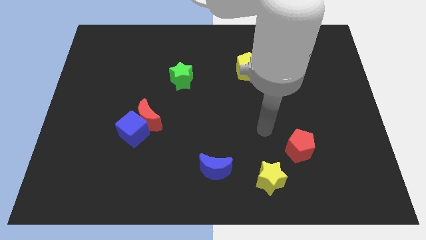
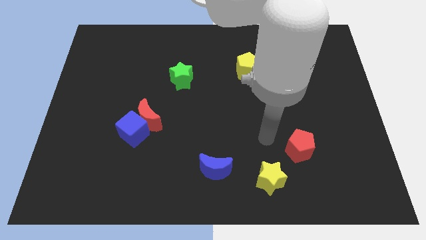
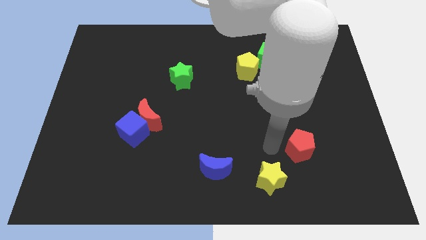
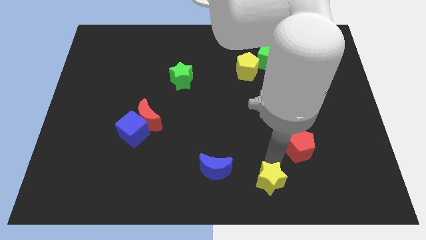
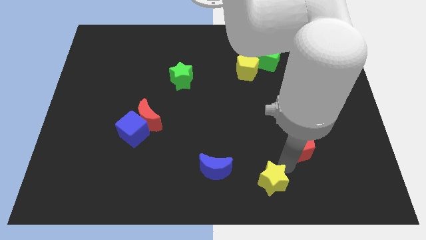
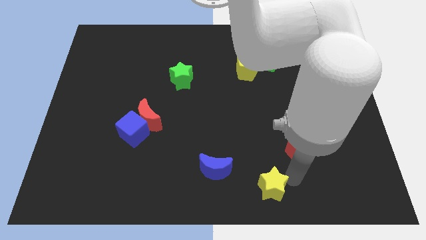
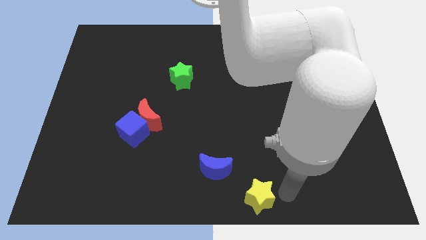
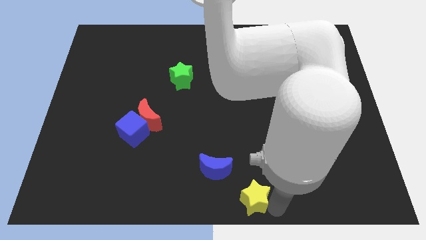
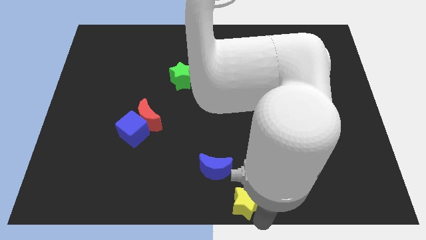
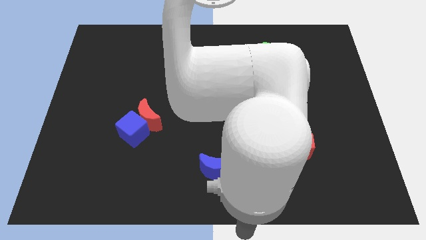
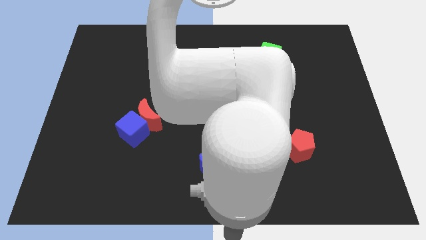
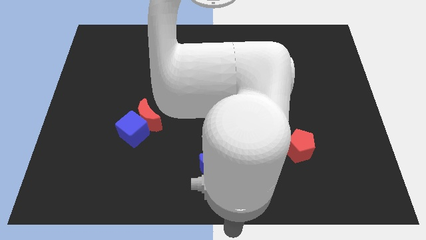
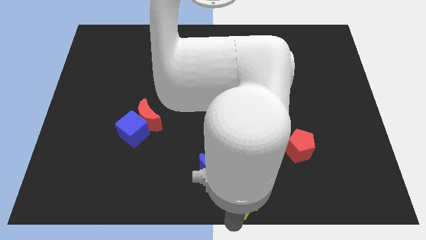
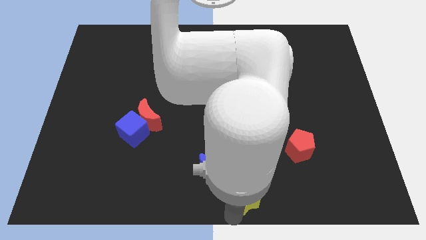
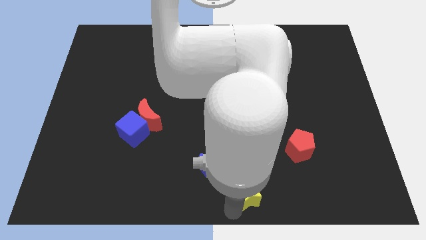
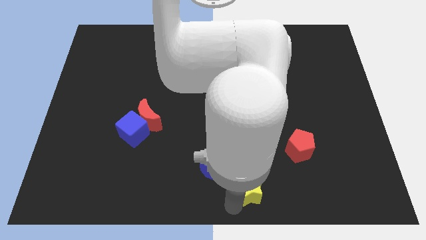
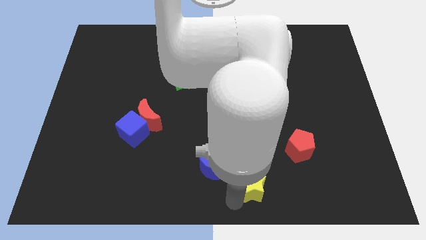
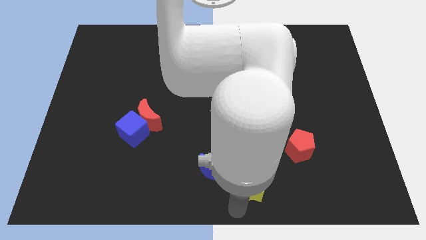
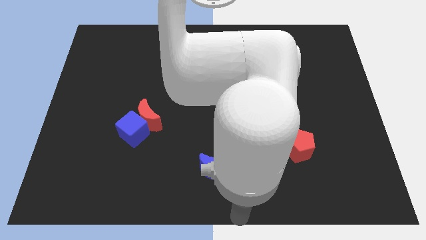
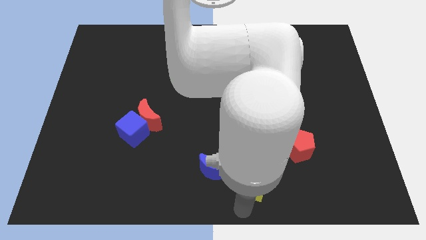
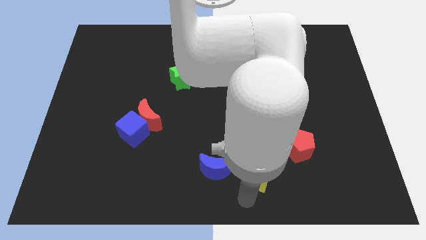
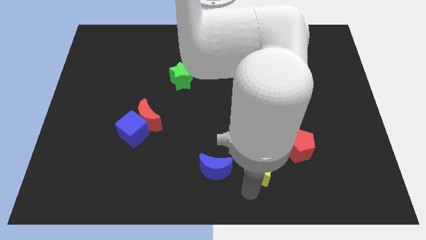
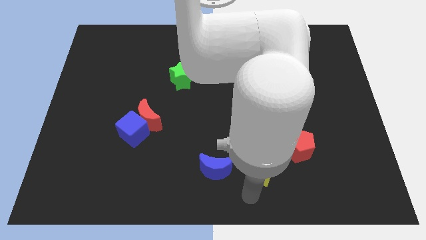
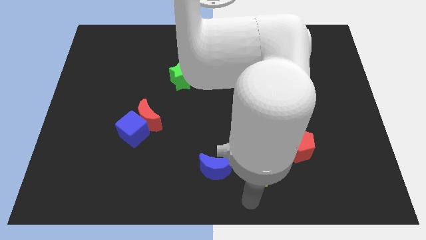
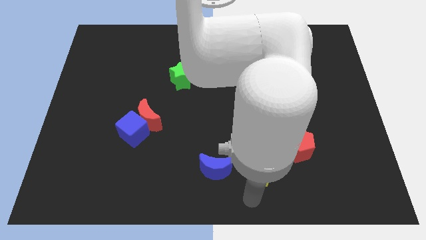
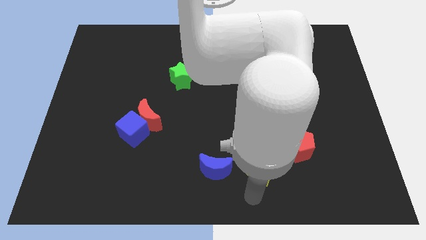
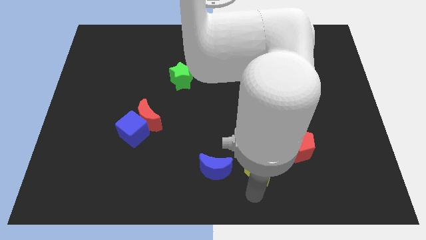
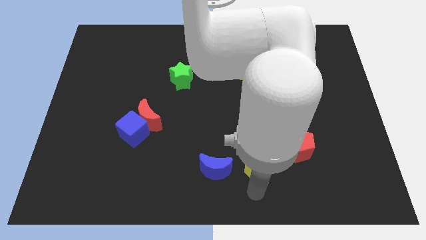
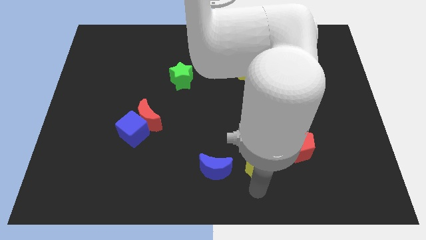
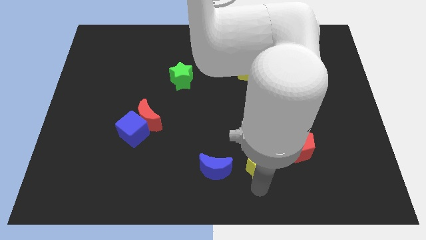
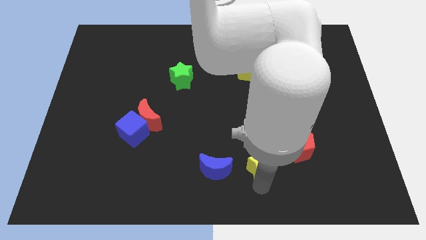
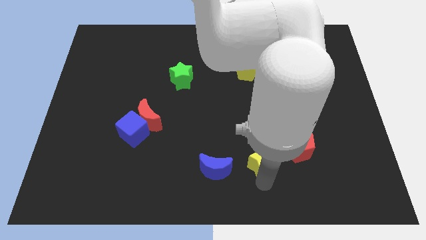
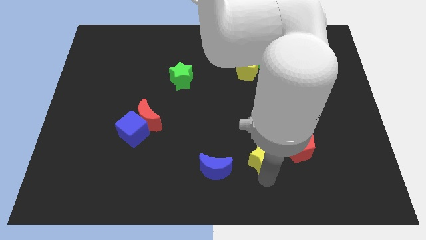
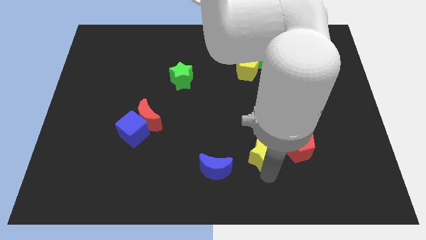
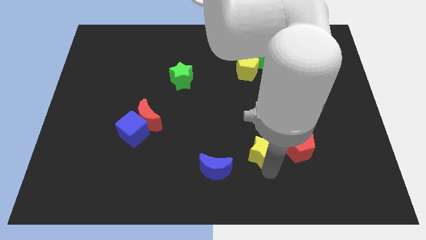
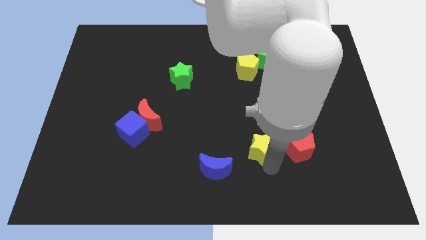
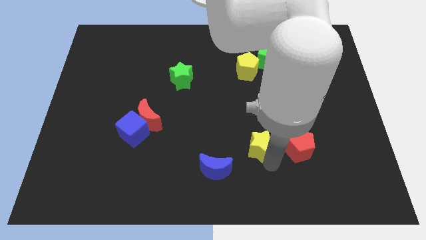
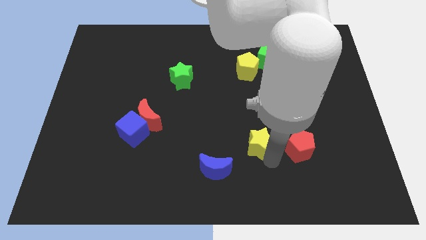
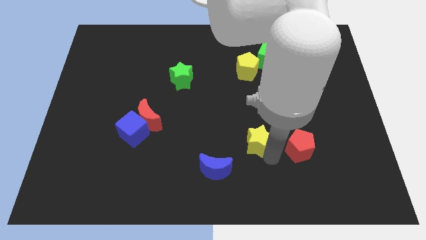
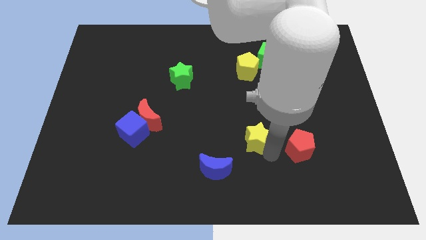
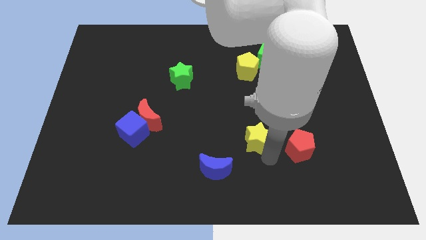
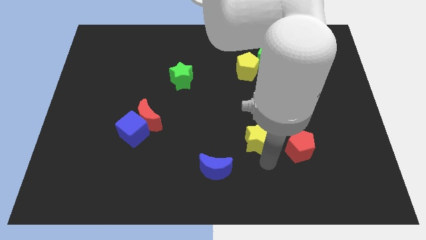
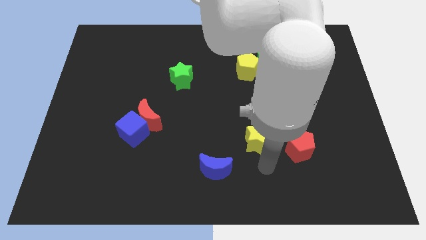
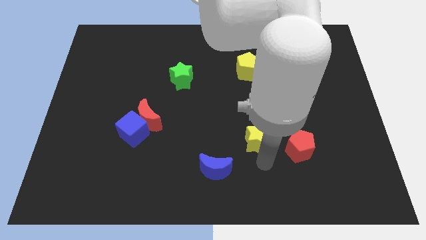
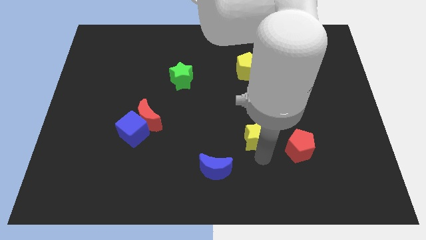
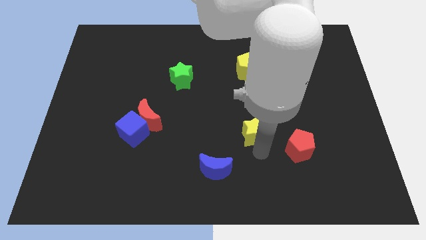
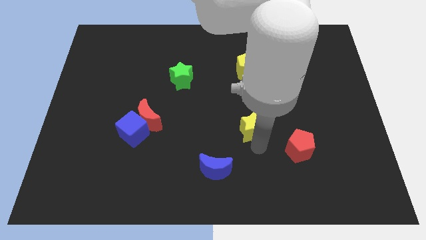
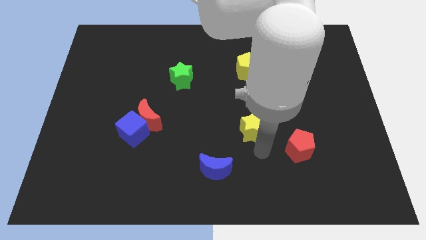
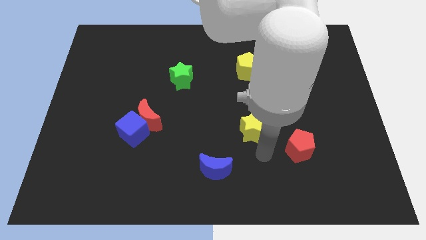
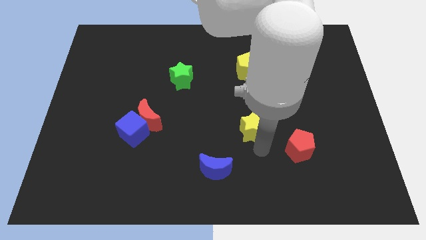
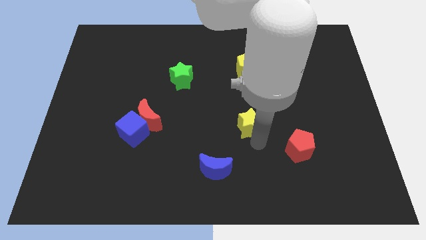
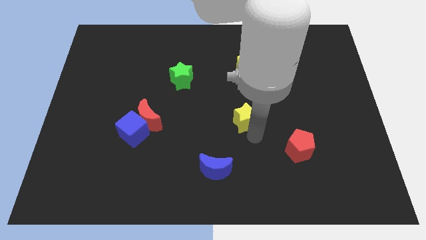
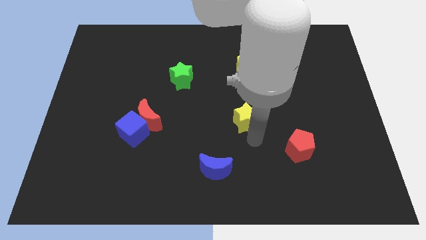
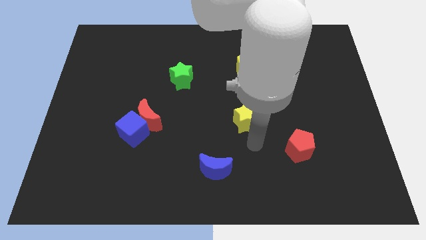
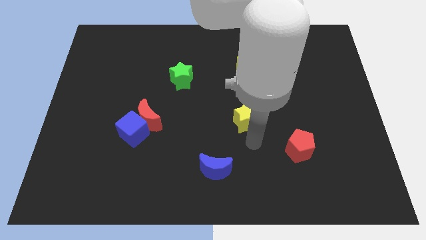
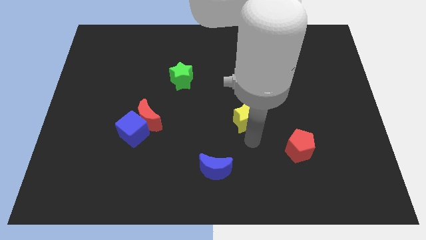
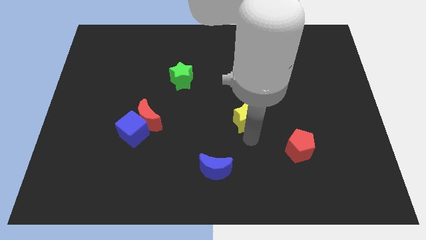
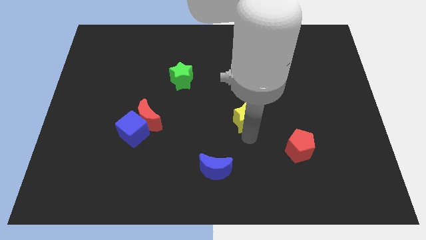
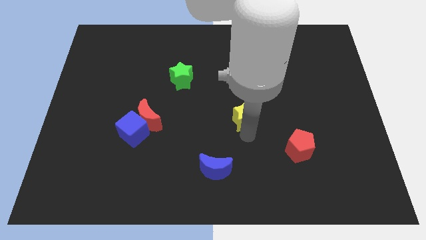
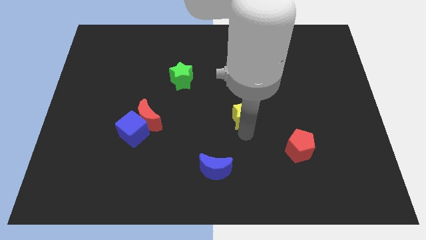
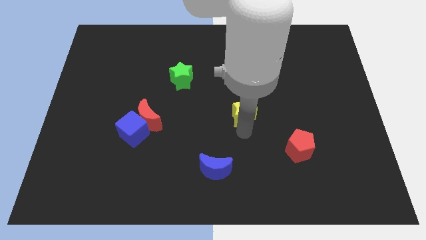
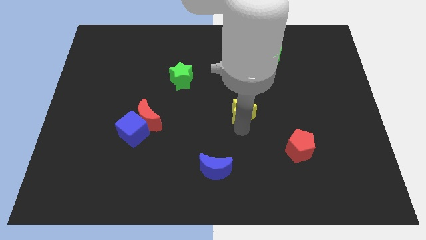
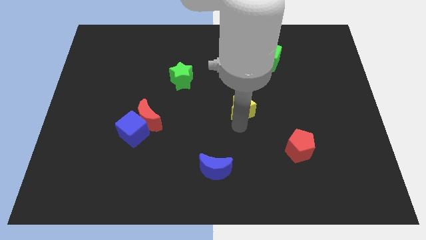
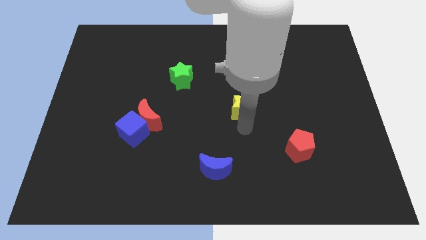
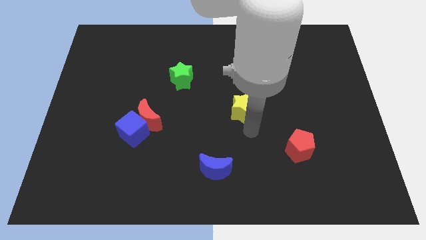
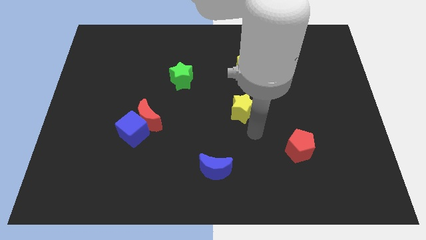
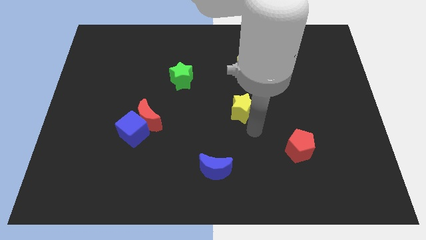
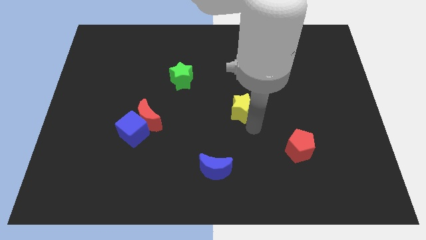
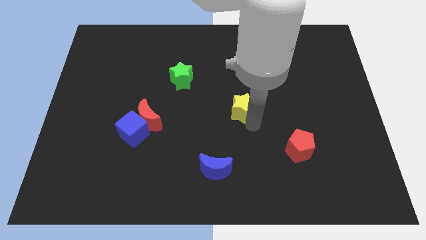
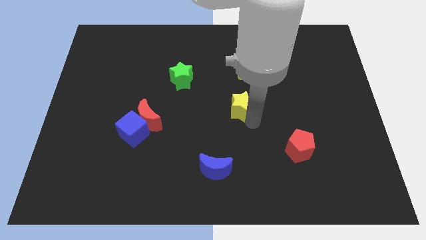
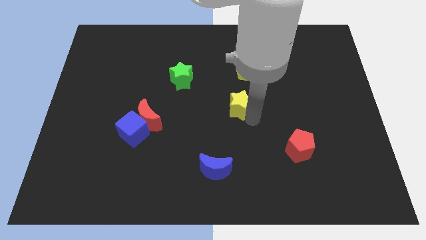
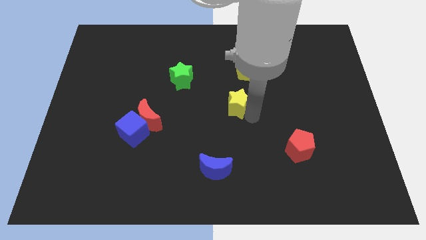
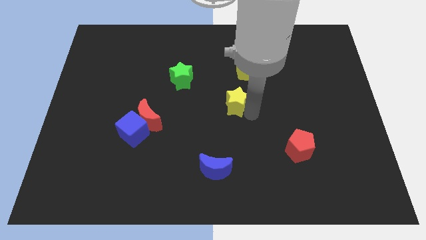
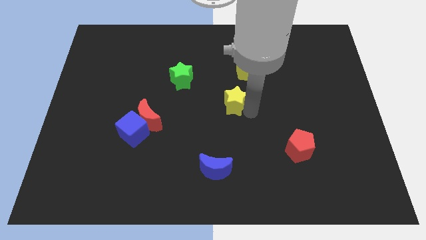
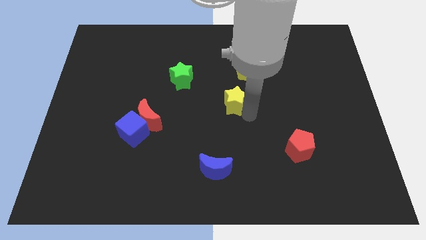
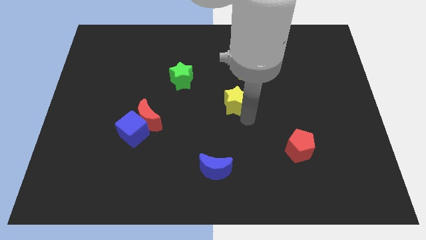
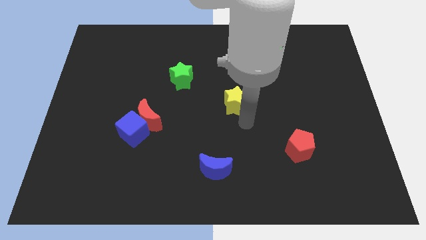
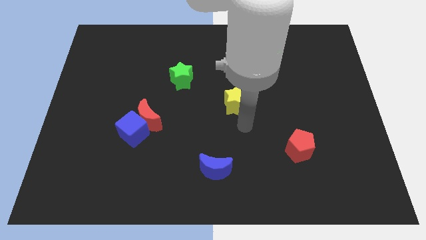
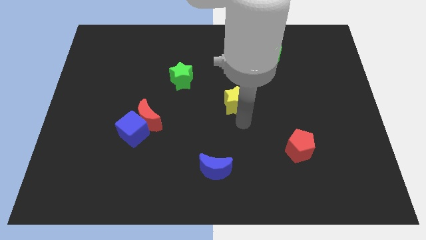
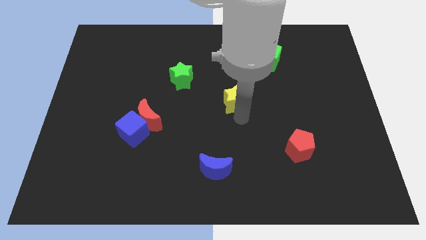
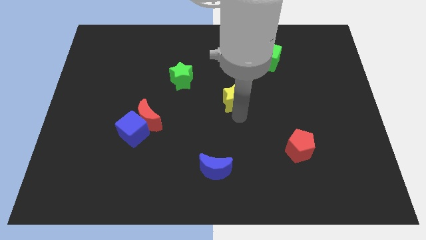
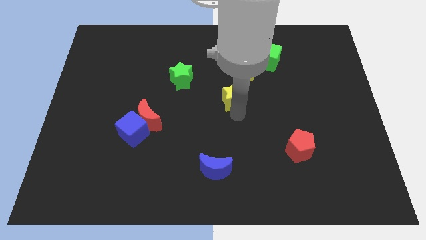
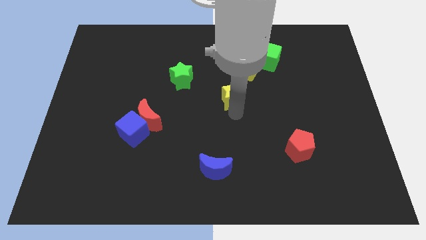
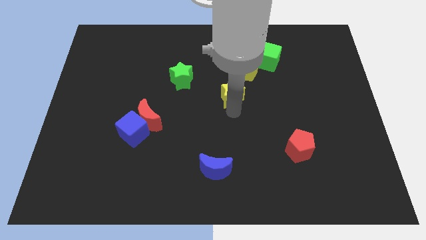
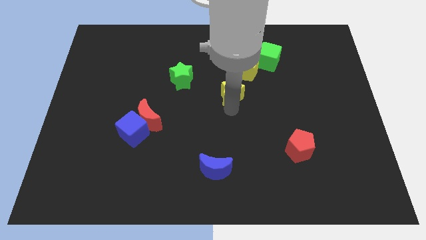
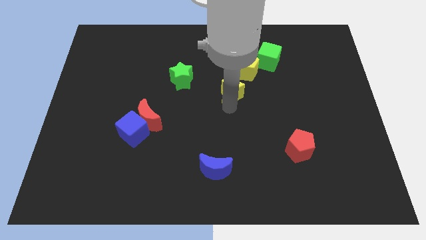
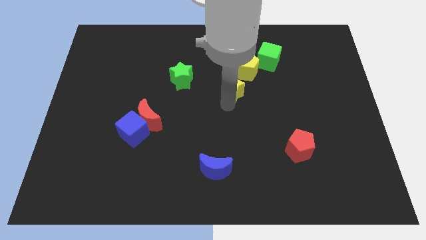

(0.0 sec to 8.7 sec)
push the yellow star to the right side of the green star
